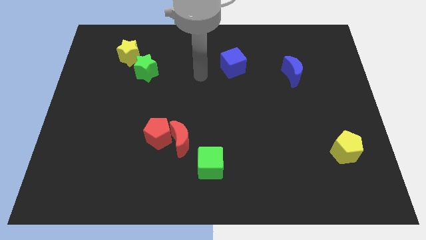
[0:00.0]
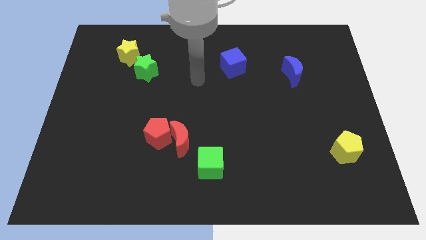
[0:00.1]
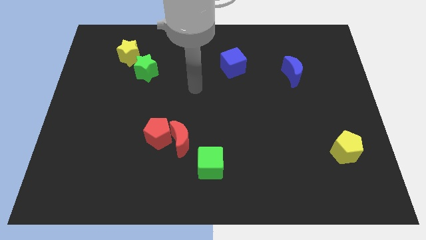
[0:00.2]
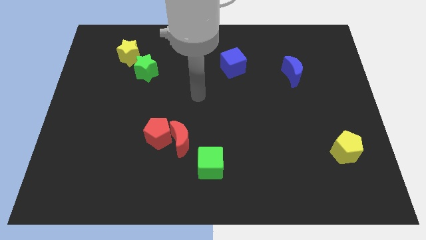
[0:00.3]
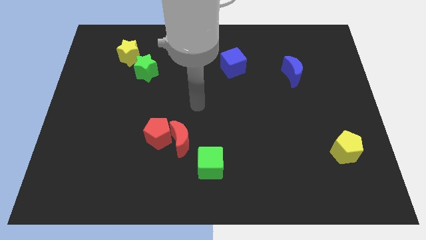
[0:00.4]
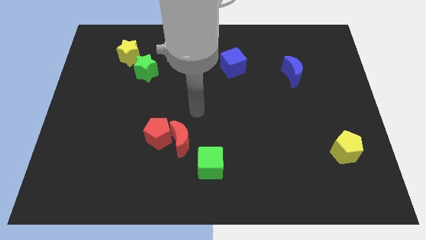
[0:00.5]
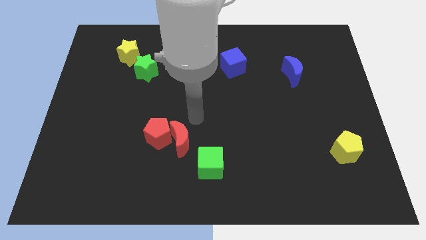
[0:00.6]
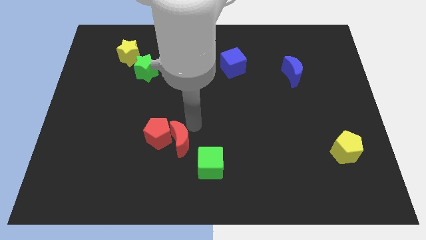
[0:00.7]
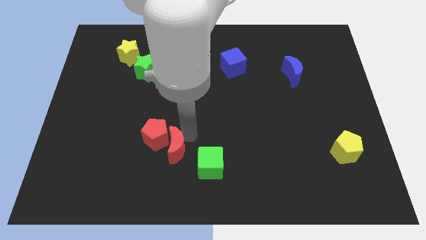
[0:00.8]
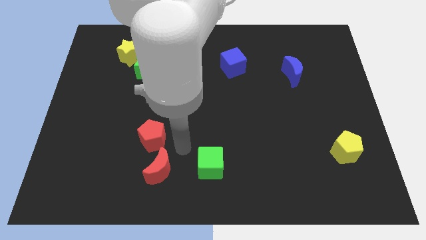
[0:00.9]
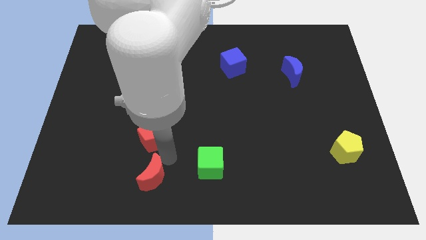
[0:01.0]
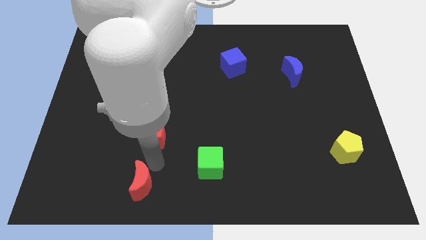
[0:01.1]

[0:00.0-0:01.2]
pull the red pentagon apart from the red moon

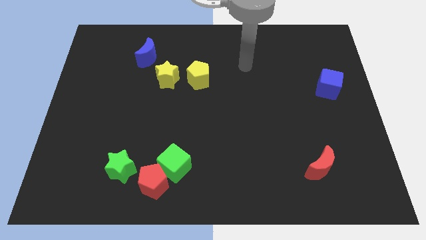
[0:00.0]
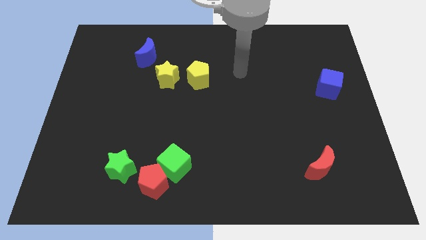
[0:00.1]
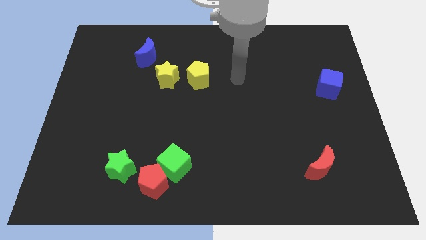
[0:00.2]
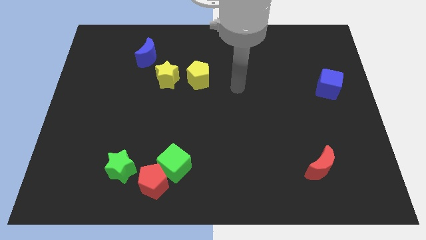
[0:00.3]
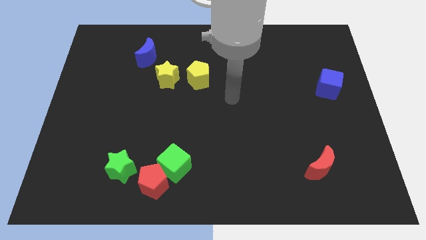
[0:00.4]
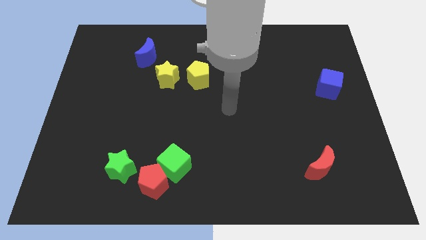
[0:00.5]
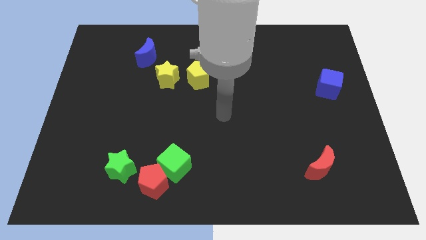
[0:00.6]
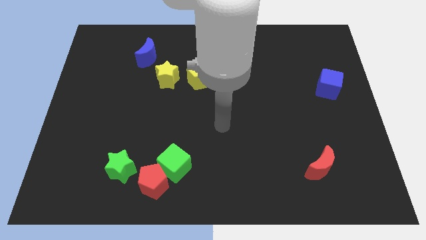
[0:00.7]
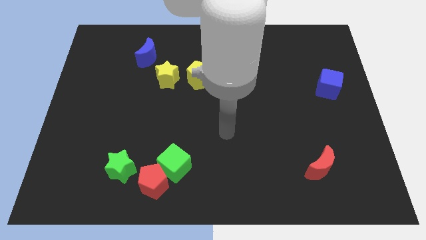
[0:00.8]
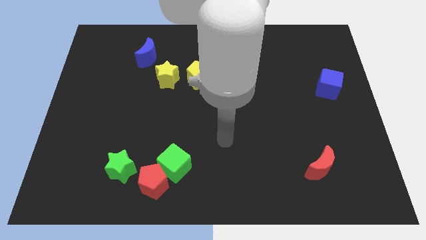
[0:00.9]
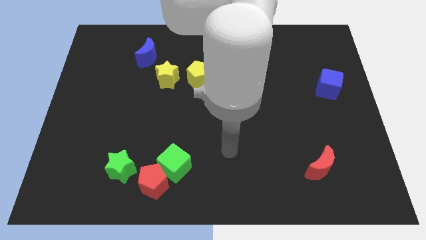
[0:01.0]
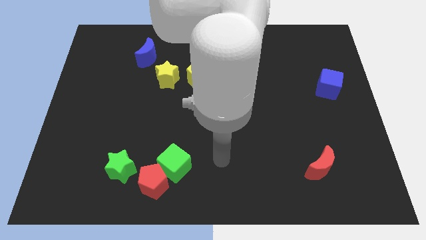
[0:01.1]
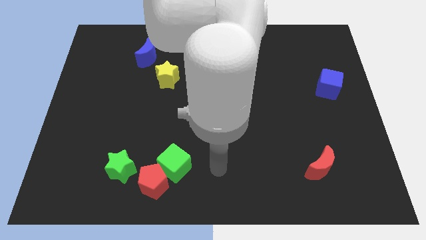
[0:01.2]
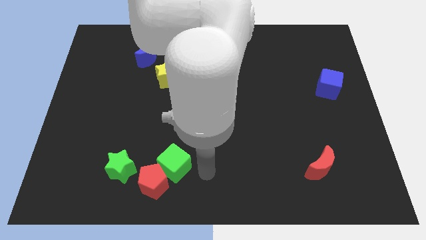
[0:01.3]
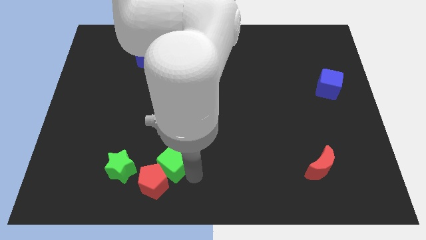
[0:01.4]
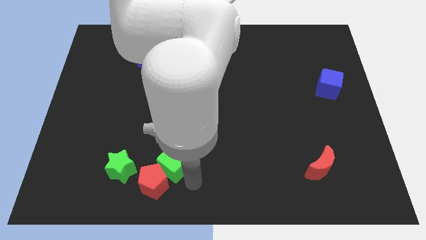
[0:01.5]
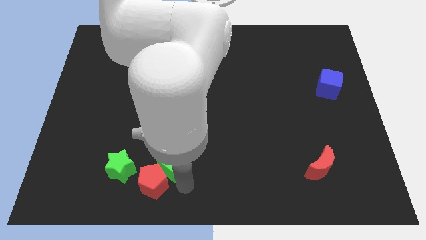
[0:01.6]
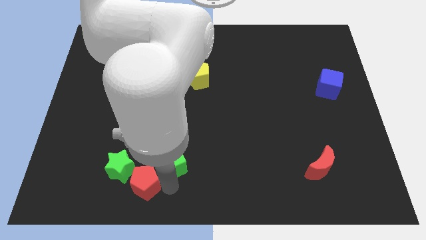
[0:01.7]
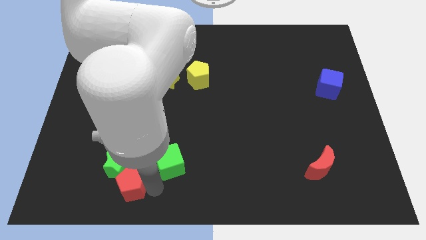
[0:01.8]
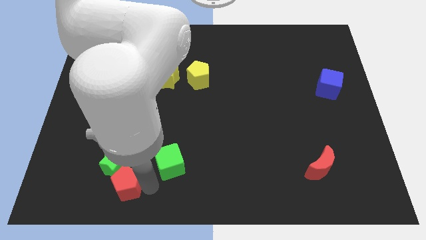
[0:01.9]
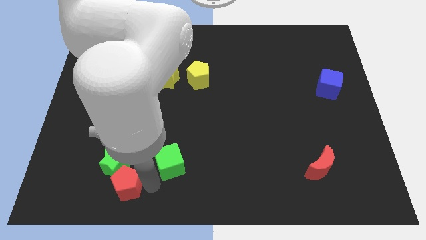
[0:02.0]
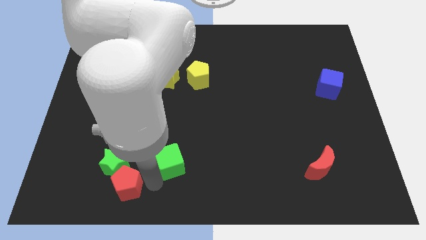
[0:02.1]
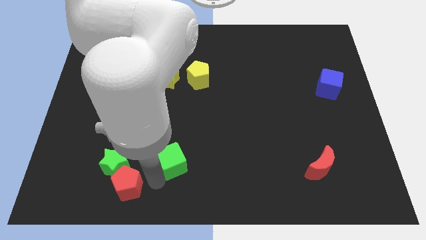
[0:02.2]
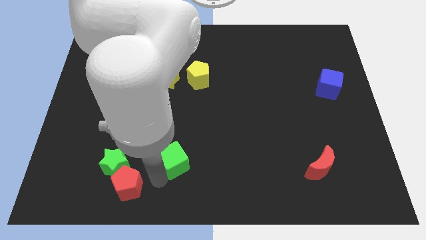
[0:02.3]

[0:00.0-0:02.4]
move the green cube away from the red pentagon

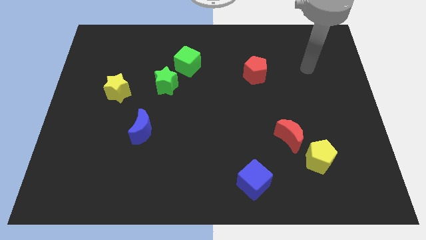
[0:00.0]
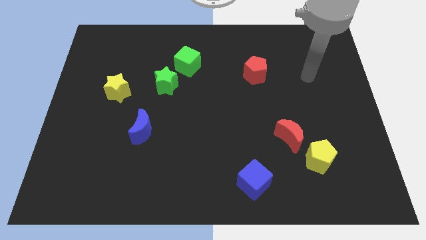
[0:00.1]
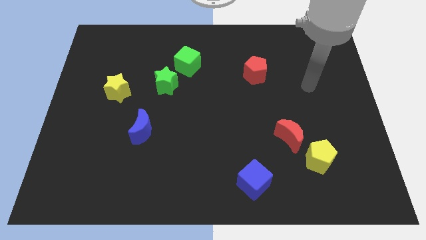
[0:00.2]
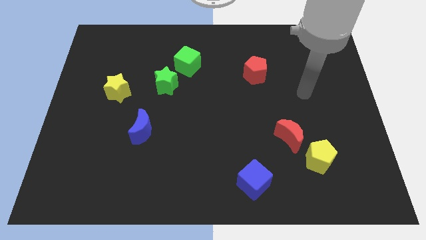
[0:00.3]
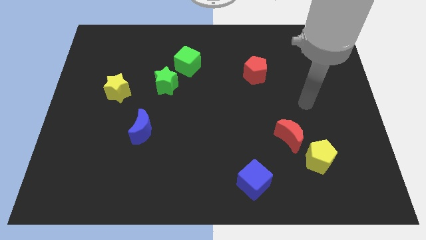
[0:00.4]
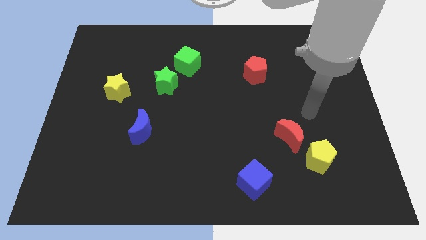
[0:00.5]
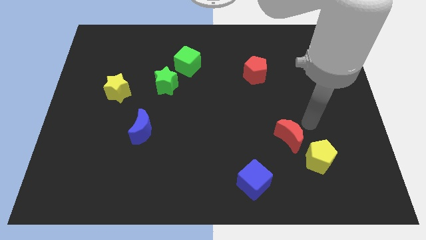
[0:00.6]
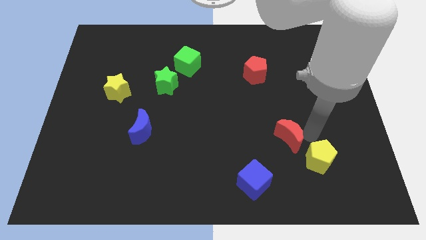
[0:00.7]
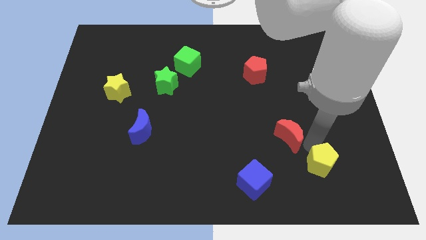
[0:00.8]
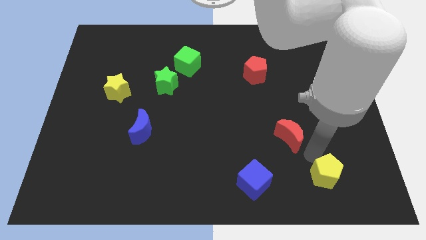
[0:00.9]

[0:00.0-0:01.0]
separate the red moon from the yellow pentagon

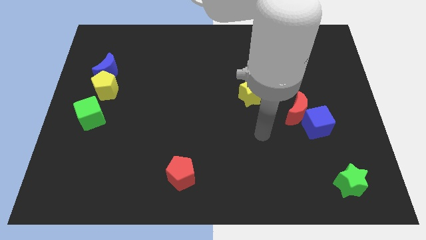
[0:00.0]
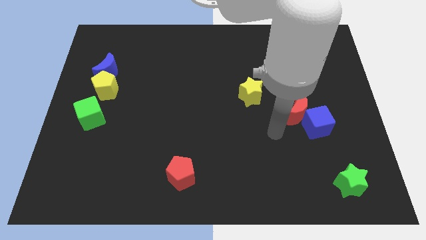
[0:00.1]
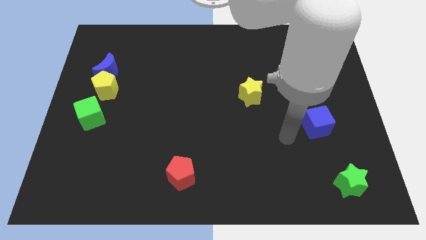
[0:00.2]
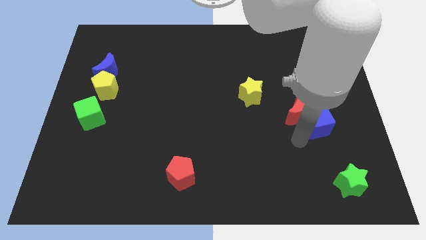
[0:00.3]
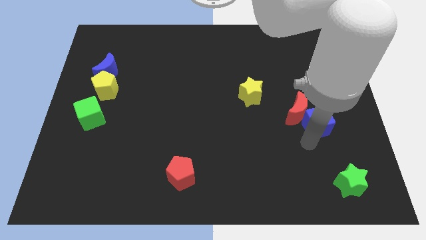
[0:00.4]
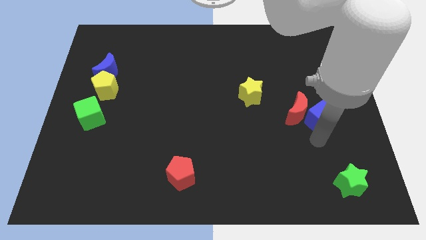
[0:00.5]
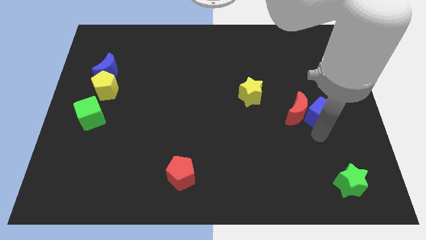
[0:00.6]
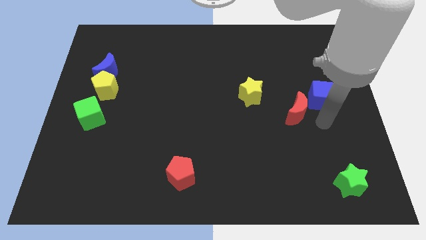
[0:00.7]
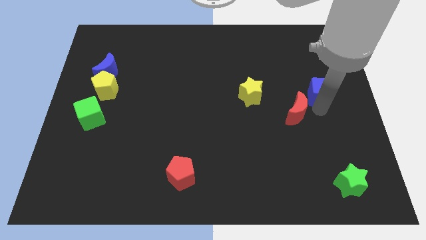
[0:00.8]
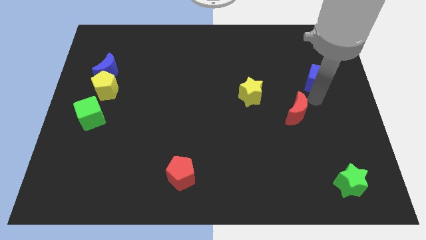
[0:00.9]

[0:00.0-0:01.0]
pull the red moon apart from the blue cube

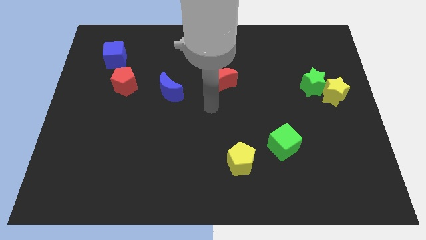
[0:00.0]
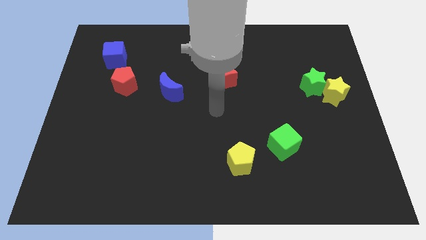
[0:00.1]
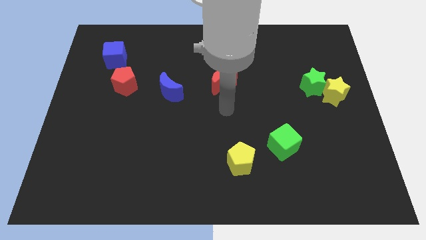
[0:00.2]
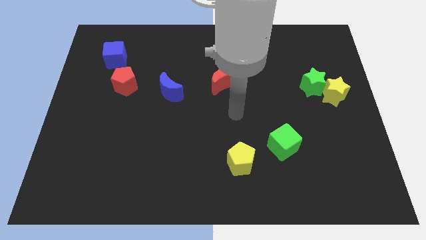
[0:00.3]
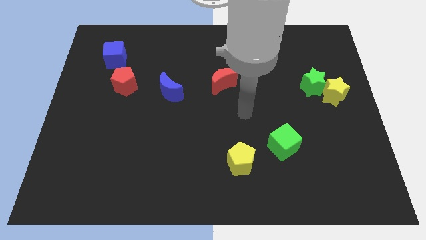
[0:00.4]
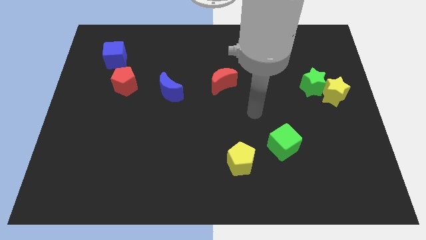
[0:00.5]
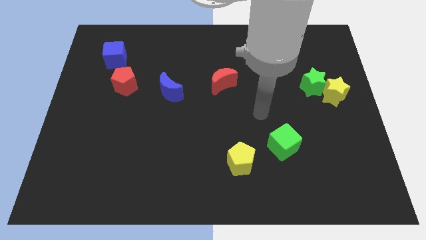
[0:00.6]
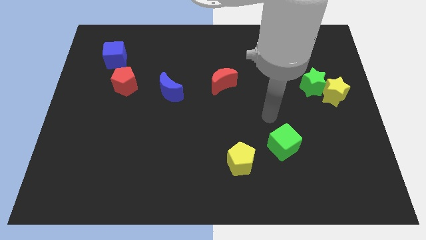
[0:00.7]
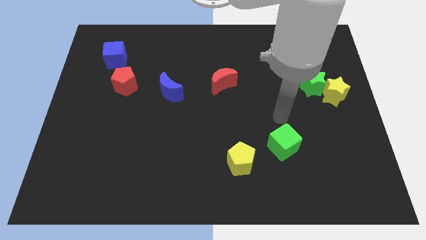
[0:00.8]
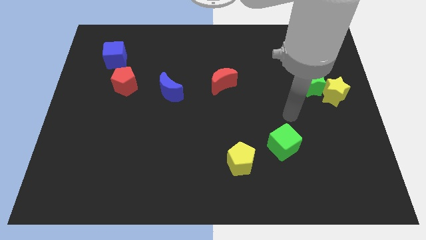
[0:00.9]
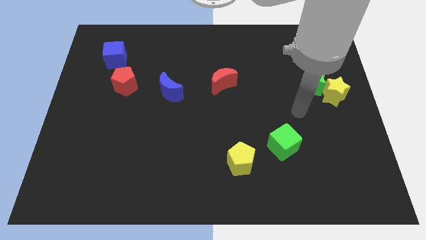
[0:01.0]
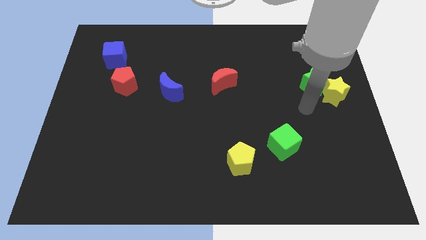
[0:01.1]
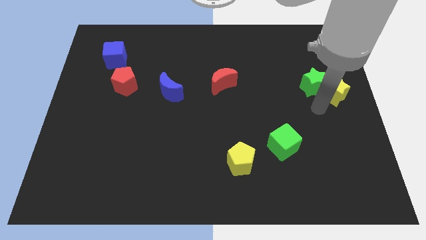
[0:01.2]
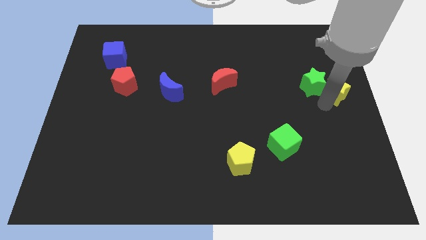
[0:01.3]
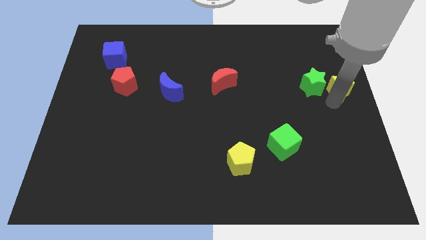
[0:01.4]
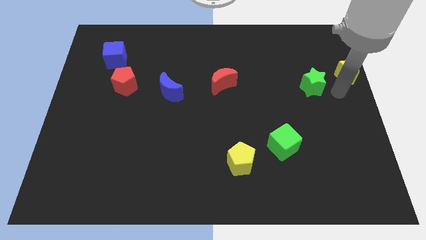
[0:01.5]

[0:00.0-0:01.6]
separate the green star from the yellow star

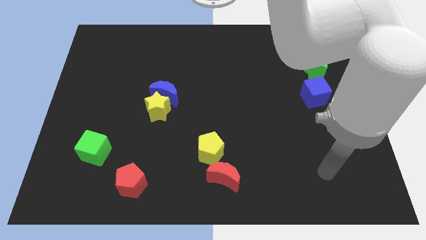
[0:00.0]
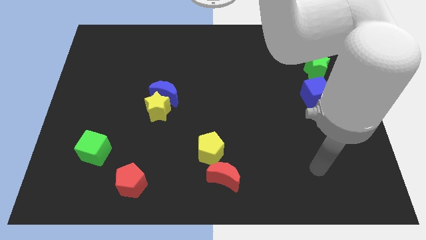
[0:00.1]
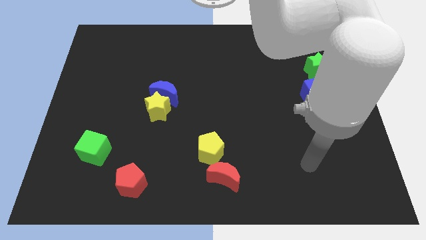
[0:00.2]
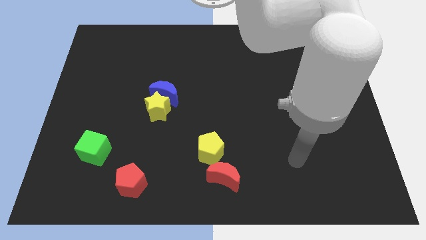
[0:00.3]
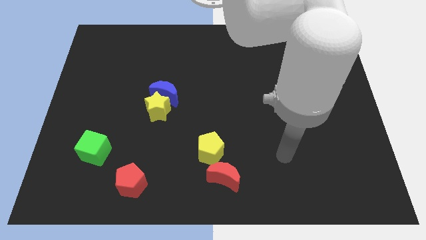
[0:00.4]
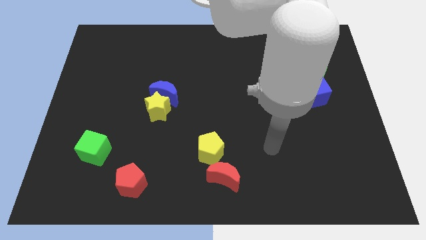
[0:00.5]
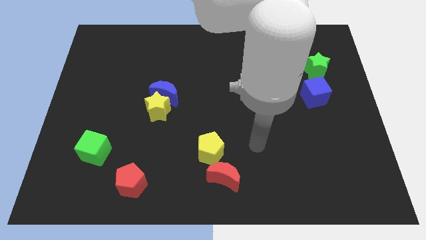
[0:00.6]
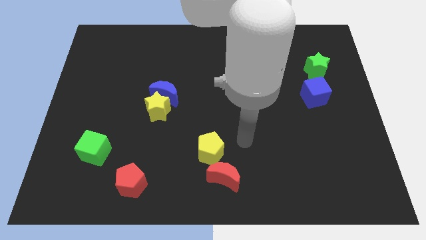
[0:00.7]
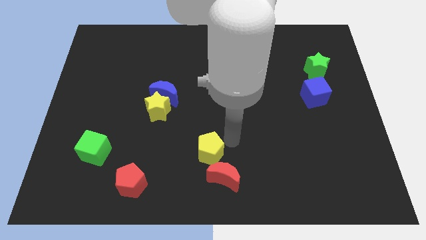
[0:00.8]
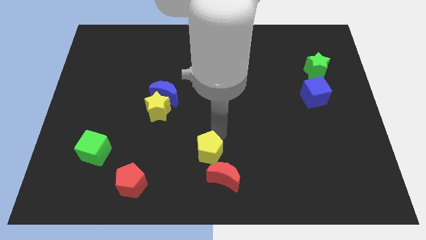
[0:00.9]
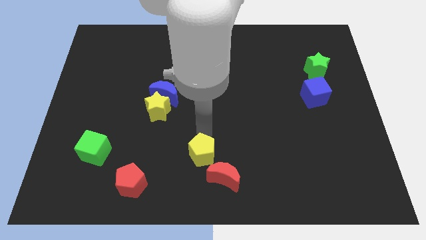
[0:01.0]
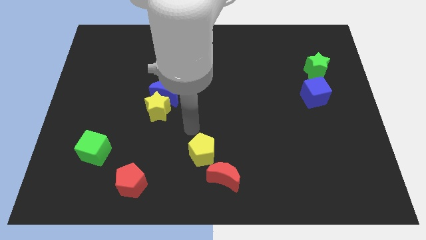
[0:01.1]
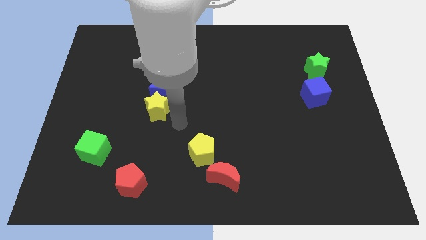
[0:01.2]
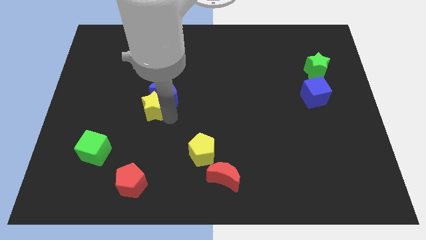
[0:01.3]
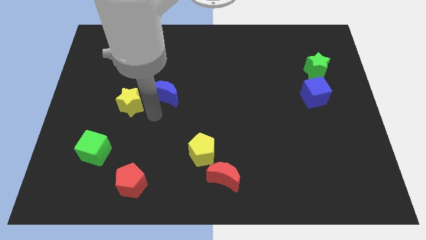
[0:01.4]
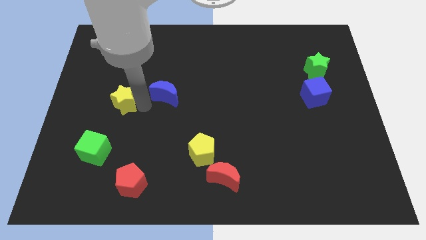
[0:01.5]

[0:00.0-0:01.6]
move the blue moon away from the yellow star

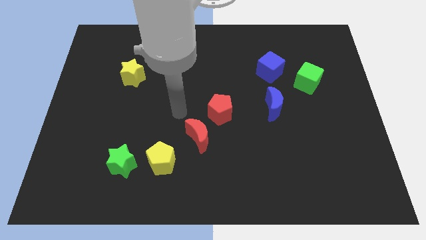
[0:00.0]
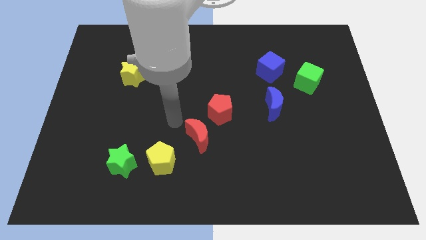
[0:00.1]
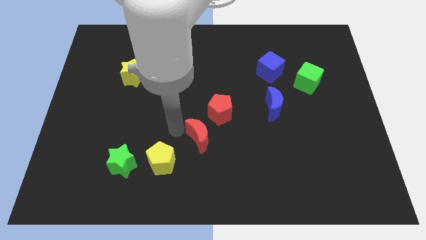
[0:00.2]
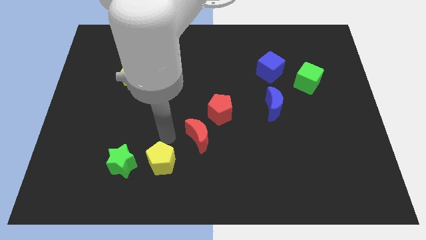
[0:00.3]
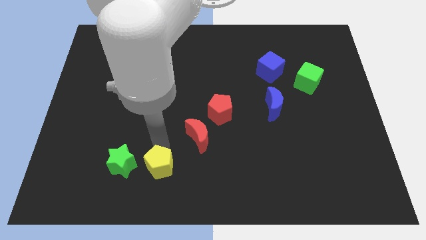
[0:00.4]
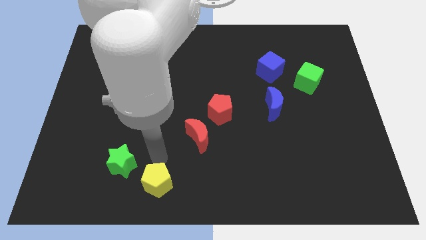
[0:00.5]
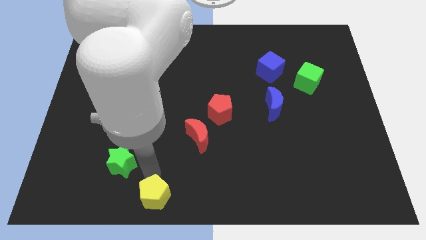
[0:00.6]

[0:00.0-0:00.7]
separate the green star from the yellow pentagon
